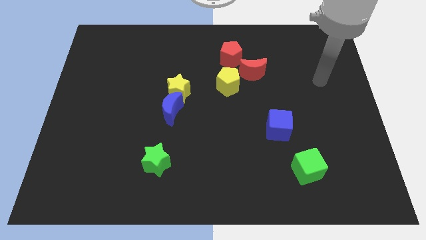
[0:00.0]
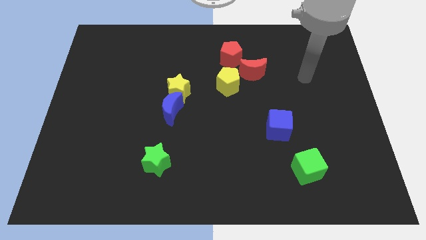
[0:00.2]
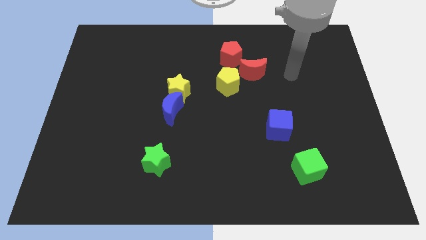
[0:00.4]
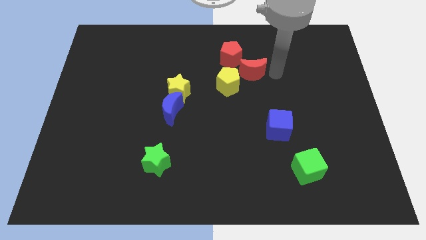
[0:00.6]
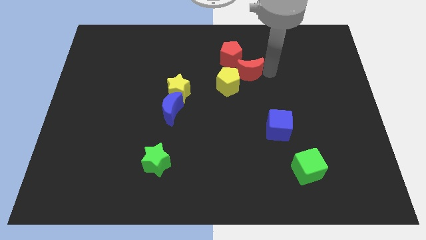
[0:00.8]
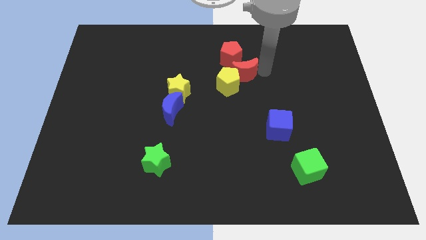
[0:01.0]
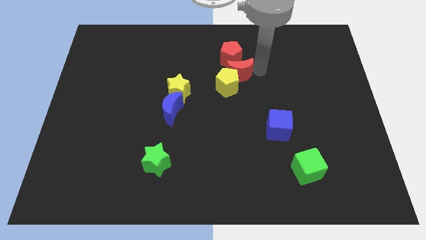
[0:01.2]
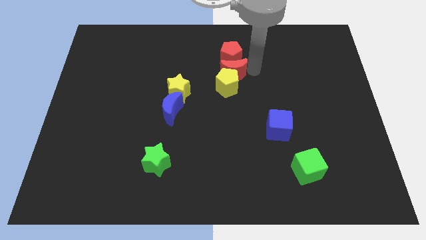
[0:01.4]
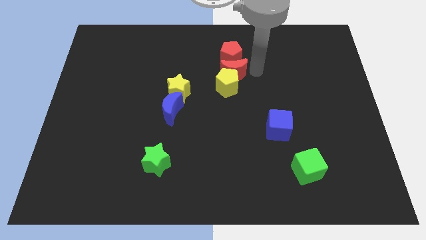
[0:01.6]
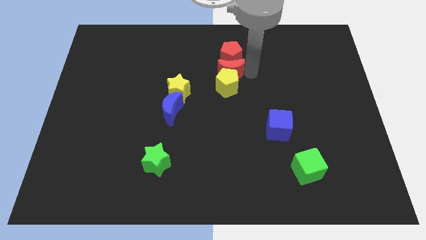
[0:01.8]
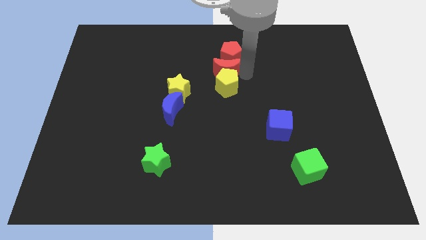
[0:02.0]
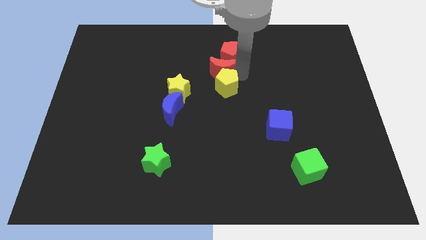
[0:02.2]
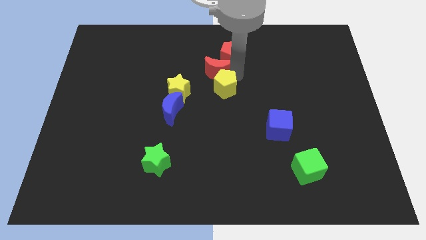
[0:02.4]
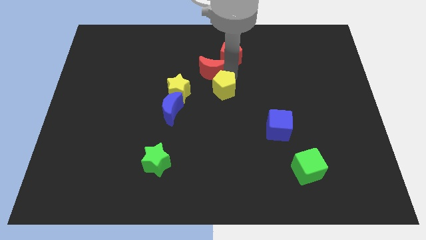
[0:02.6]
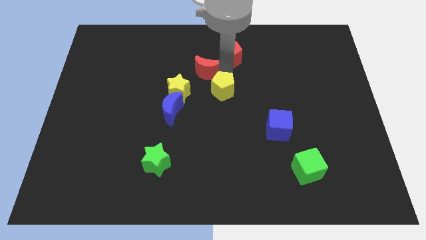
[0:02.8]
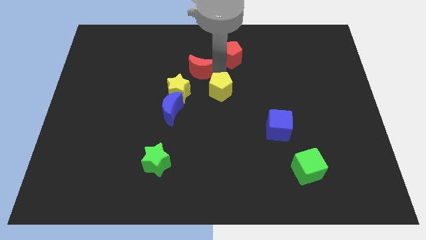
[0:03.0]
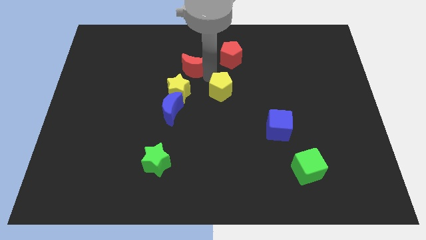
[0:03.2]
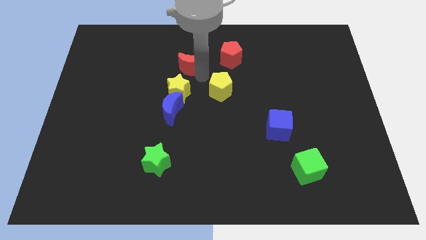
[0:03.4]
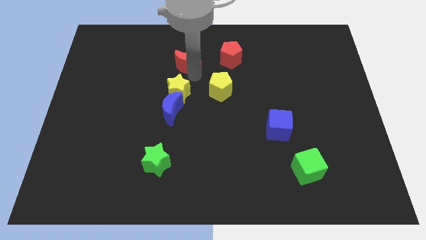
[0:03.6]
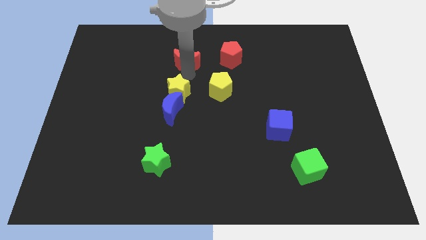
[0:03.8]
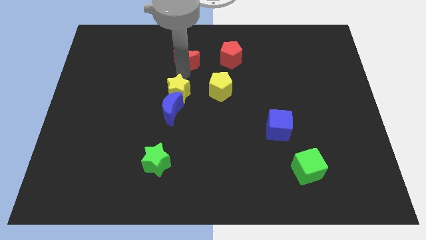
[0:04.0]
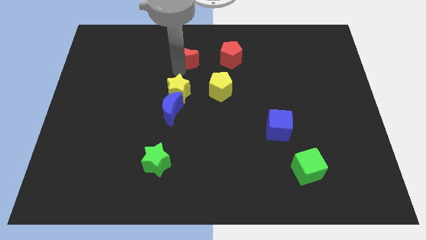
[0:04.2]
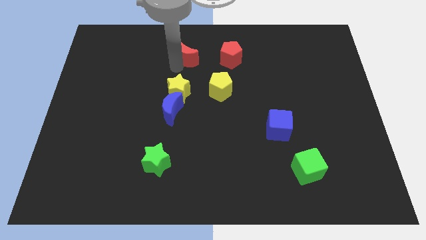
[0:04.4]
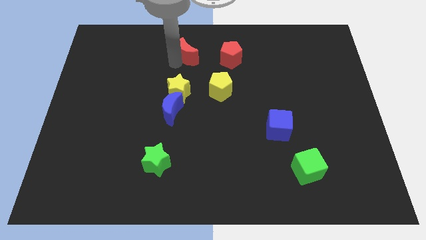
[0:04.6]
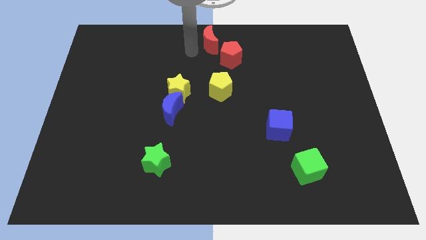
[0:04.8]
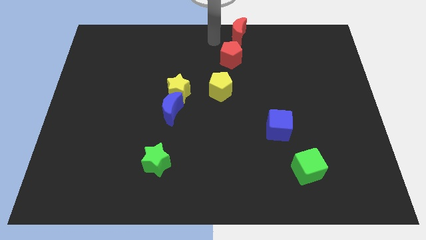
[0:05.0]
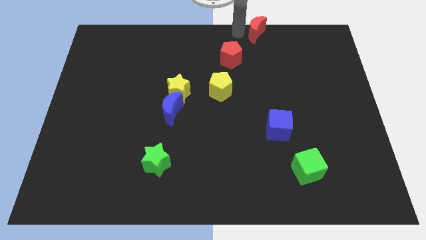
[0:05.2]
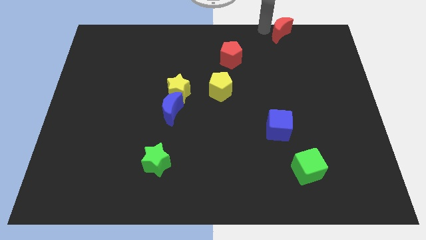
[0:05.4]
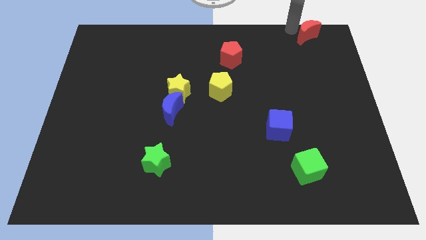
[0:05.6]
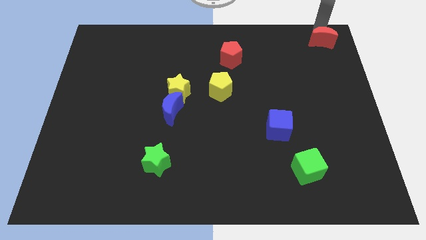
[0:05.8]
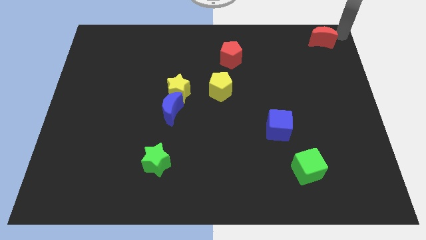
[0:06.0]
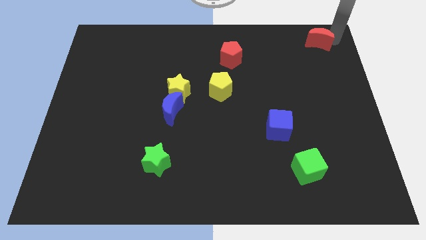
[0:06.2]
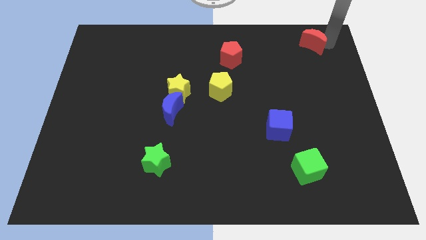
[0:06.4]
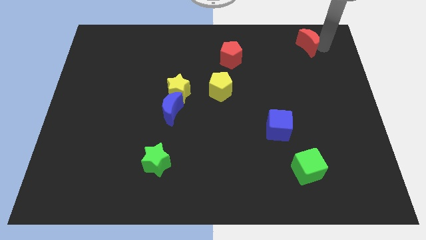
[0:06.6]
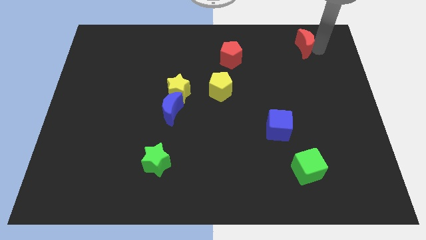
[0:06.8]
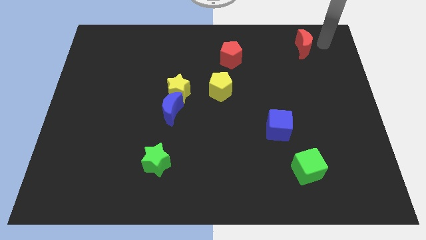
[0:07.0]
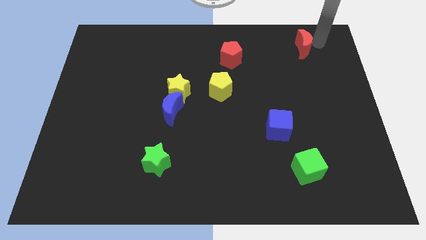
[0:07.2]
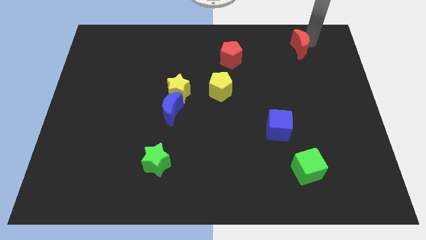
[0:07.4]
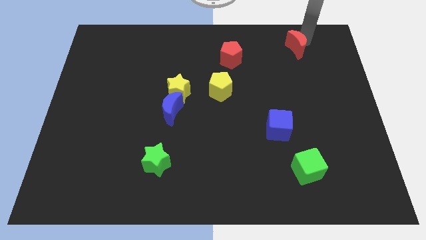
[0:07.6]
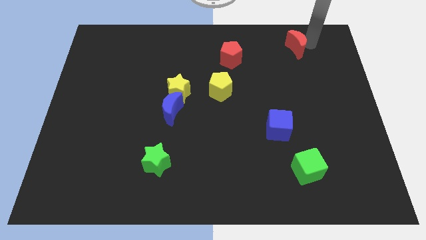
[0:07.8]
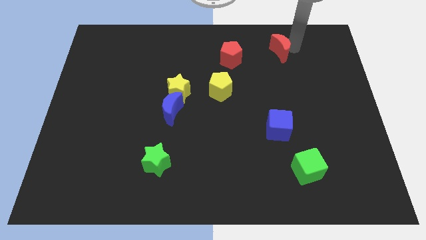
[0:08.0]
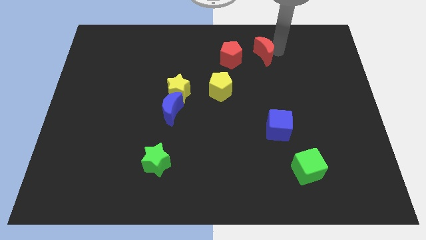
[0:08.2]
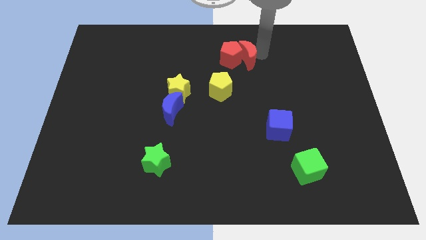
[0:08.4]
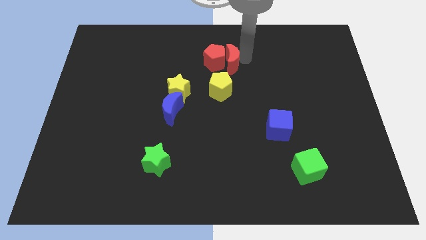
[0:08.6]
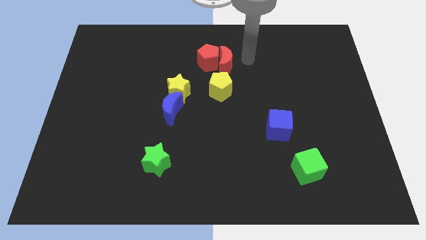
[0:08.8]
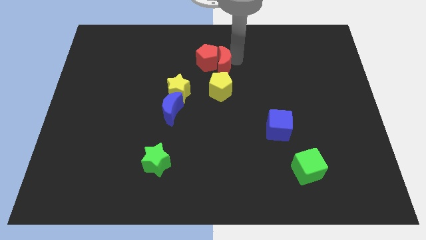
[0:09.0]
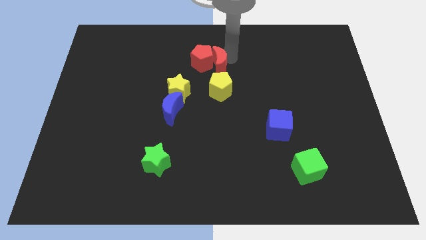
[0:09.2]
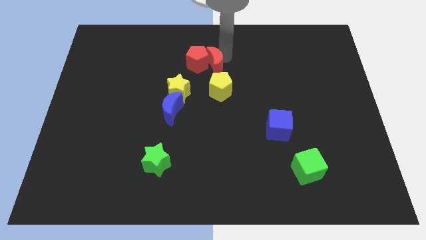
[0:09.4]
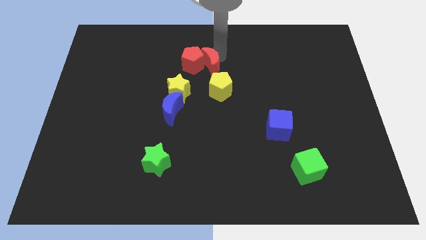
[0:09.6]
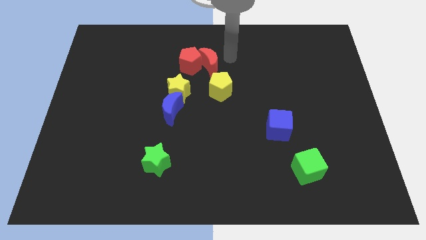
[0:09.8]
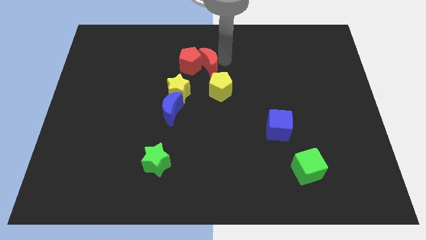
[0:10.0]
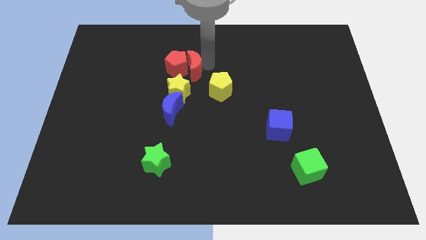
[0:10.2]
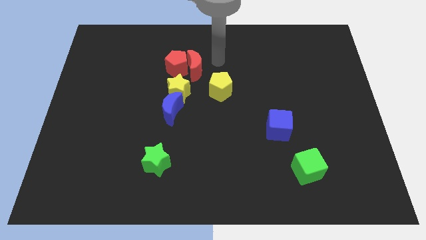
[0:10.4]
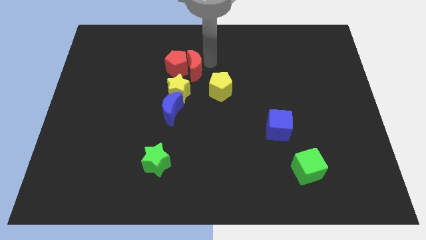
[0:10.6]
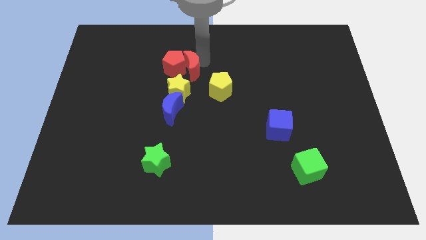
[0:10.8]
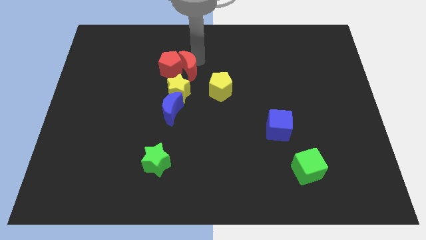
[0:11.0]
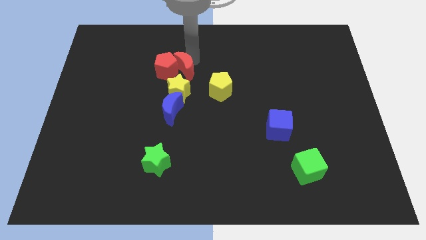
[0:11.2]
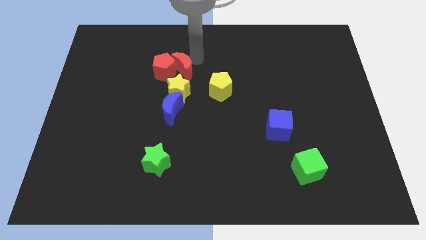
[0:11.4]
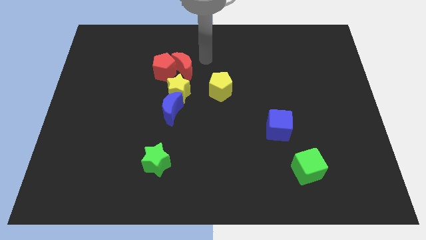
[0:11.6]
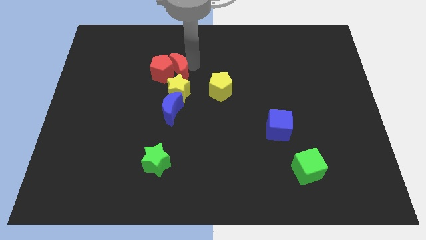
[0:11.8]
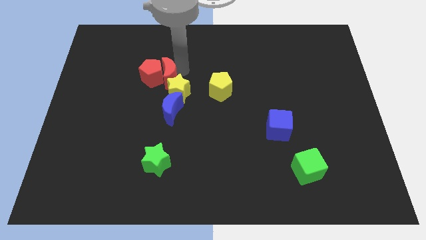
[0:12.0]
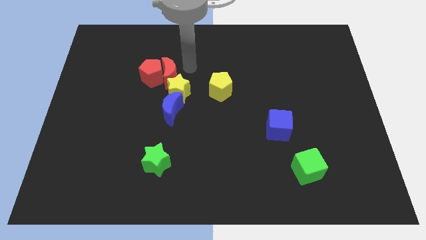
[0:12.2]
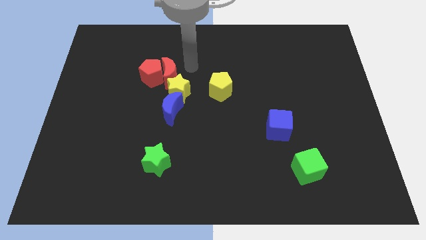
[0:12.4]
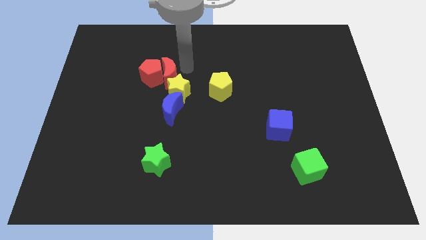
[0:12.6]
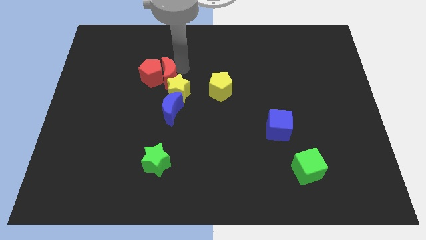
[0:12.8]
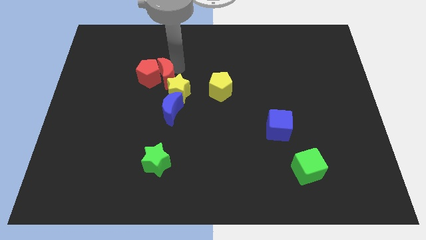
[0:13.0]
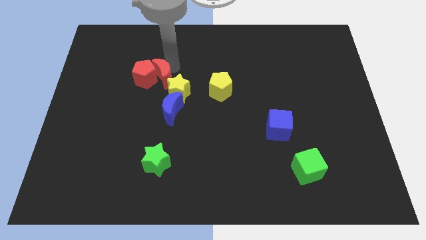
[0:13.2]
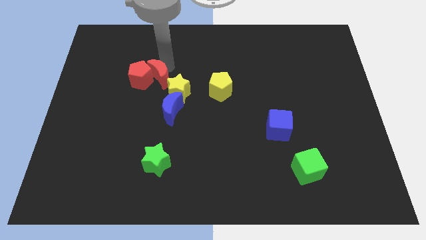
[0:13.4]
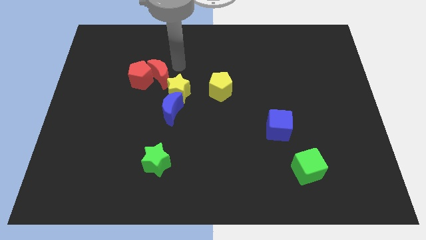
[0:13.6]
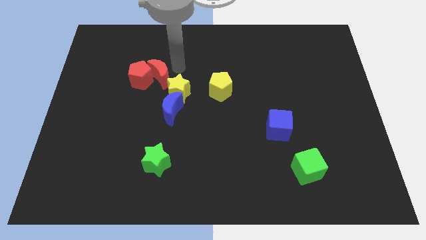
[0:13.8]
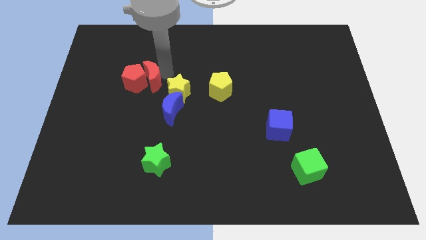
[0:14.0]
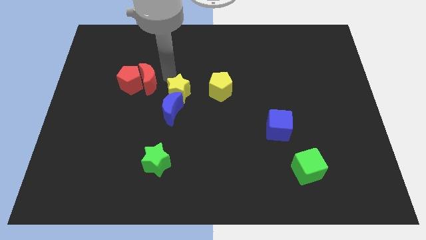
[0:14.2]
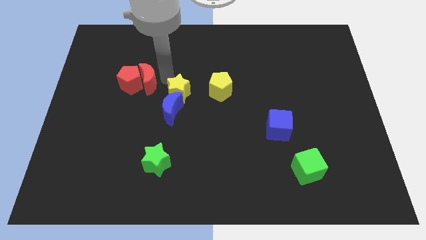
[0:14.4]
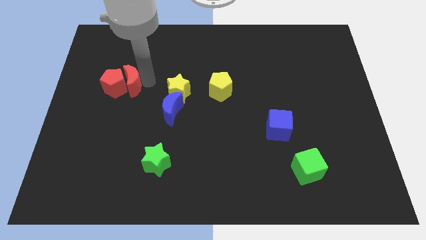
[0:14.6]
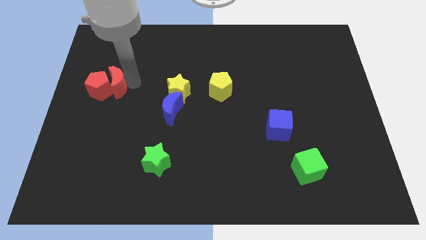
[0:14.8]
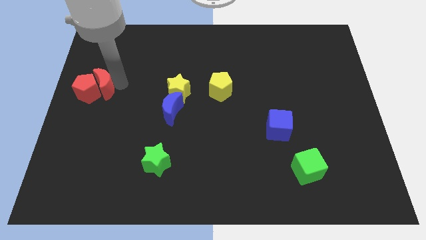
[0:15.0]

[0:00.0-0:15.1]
push the red moon to the left side

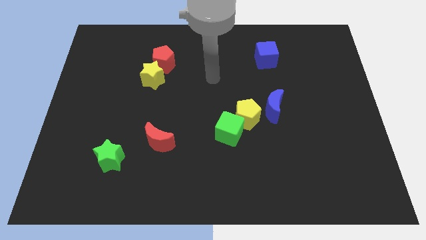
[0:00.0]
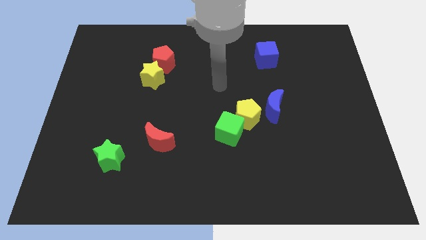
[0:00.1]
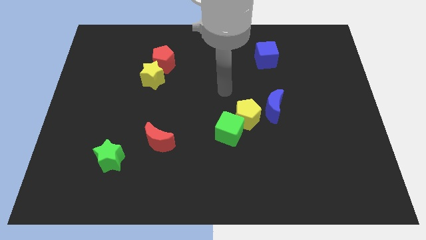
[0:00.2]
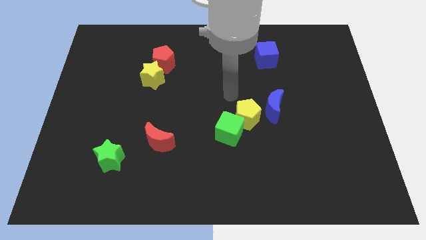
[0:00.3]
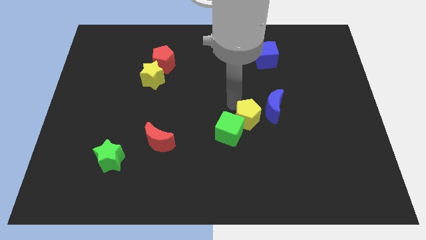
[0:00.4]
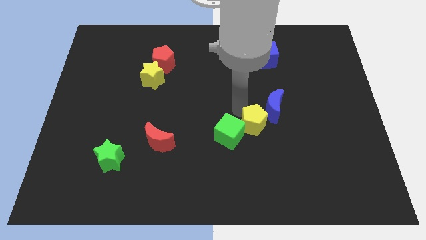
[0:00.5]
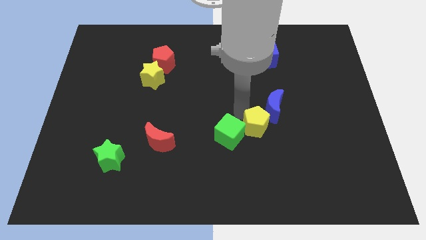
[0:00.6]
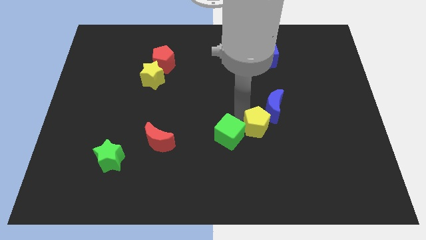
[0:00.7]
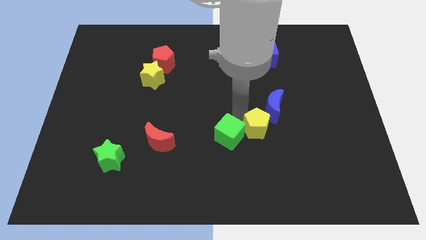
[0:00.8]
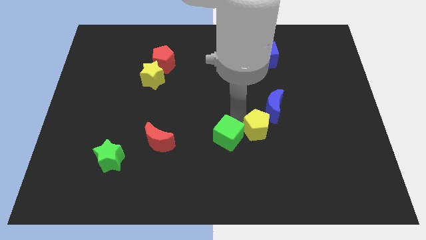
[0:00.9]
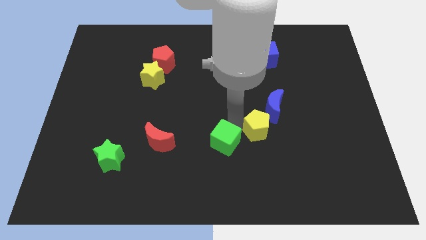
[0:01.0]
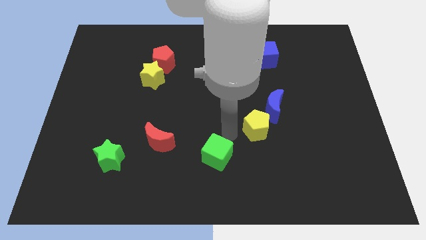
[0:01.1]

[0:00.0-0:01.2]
put the green cube to the bottom side
